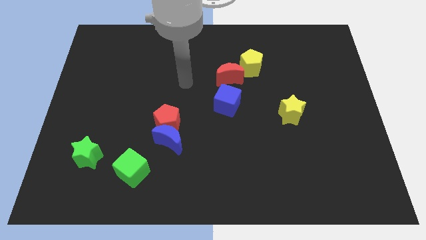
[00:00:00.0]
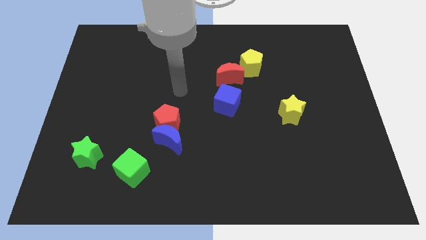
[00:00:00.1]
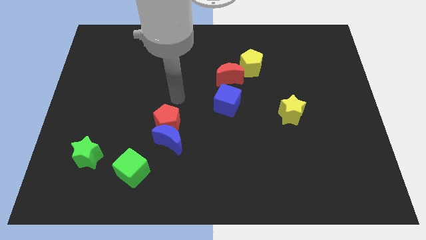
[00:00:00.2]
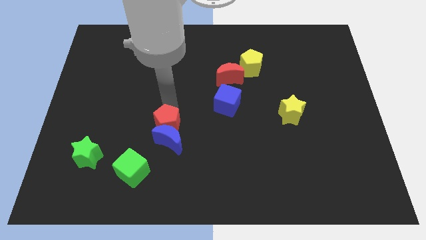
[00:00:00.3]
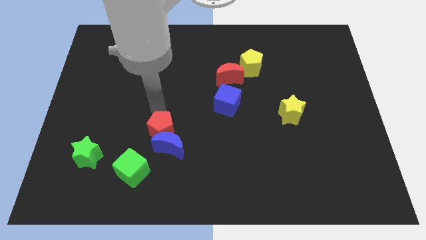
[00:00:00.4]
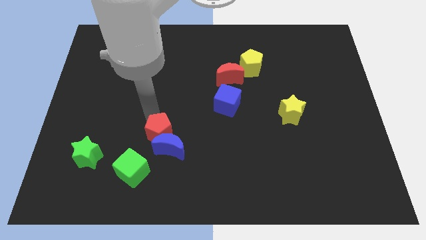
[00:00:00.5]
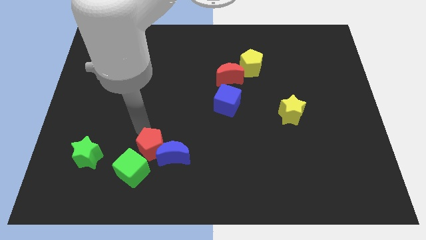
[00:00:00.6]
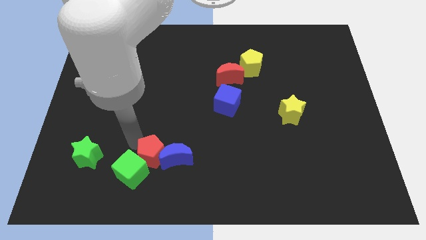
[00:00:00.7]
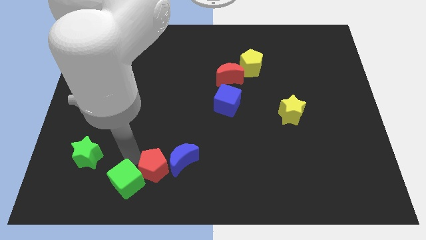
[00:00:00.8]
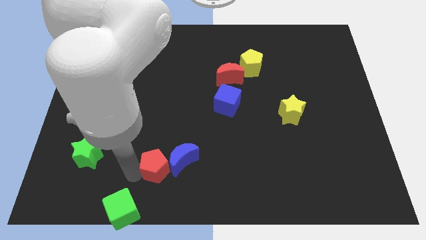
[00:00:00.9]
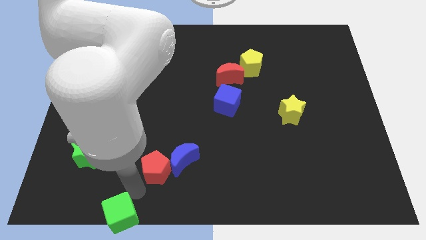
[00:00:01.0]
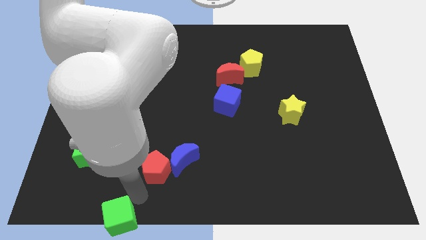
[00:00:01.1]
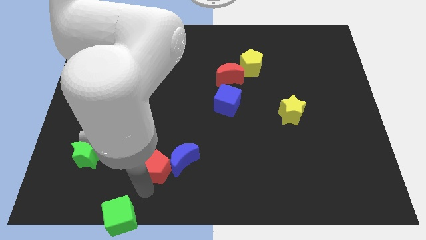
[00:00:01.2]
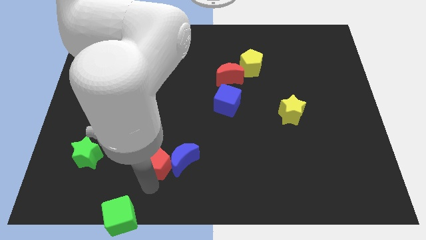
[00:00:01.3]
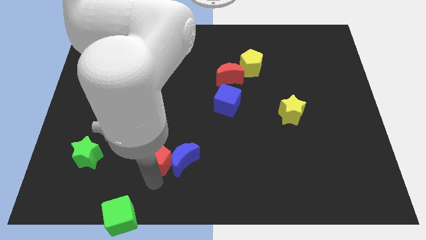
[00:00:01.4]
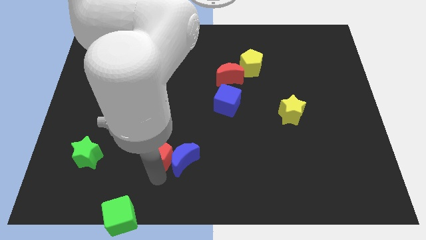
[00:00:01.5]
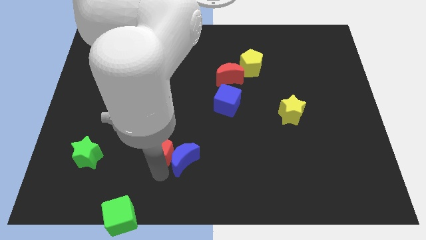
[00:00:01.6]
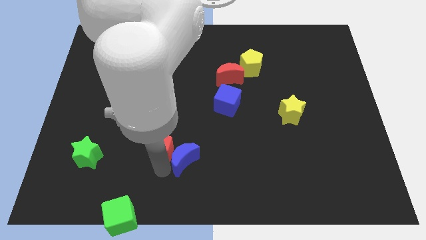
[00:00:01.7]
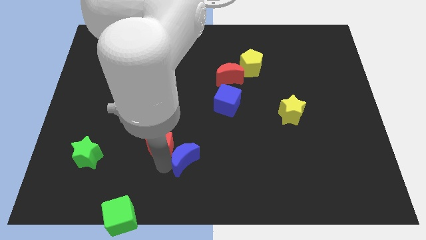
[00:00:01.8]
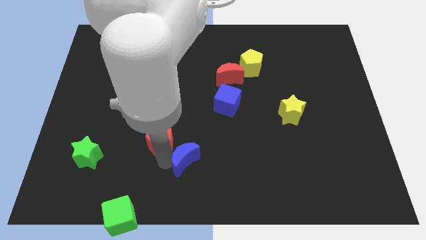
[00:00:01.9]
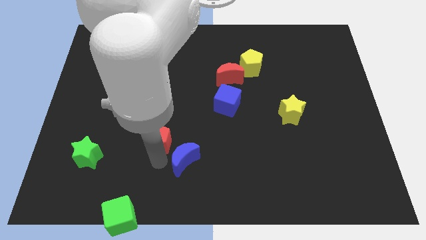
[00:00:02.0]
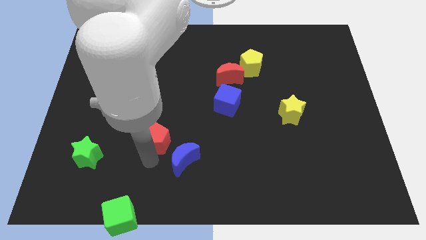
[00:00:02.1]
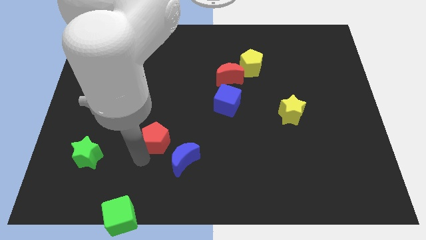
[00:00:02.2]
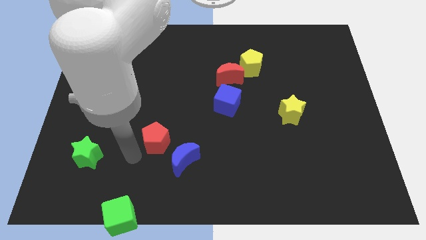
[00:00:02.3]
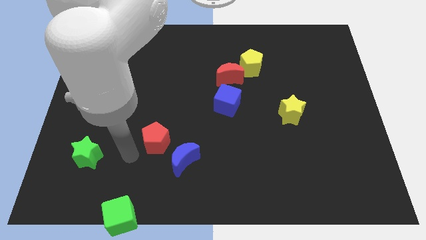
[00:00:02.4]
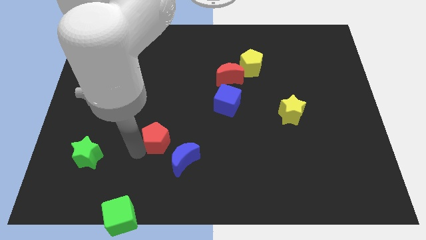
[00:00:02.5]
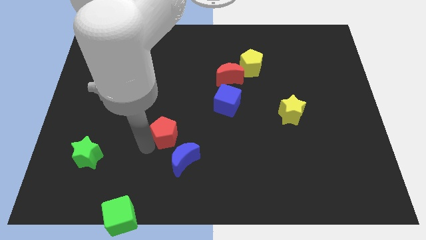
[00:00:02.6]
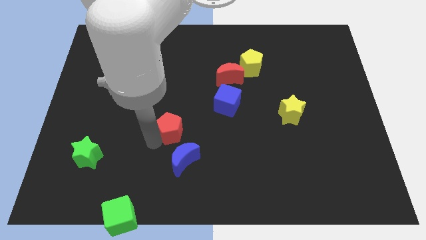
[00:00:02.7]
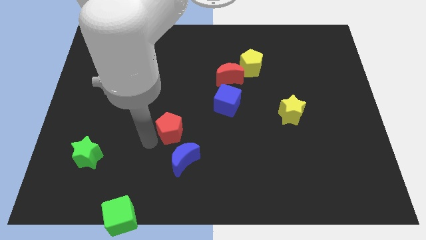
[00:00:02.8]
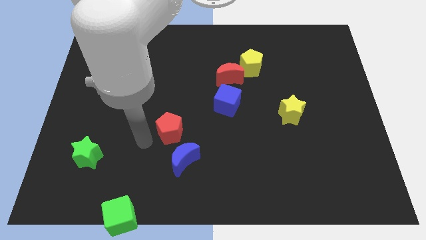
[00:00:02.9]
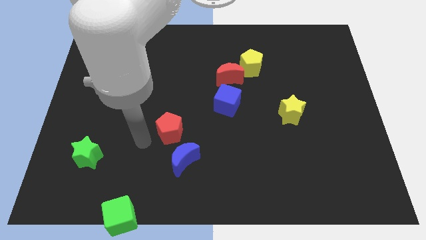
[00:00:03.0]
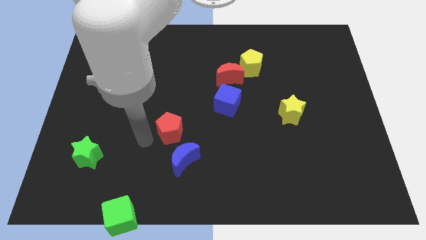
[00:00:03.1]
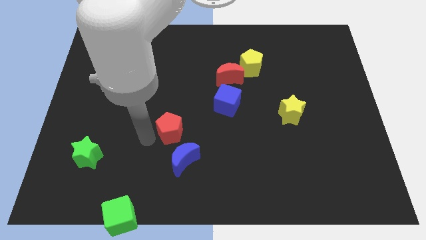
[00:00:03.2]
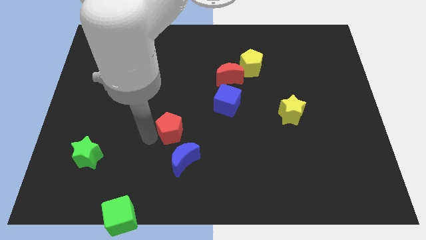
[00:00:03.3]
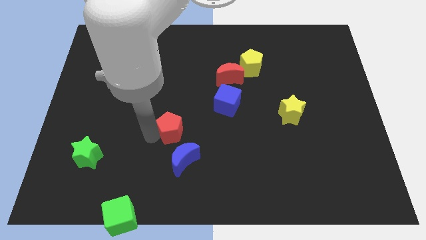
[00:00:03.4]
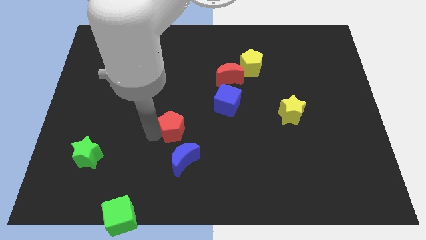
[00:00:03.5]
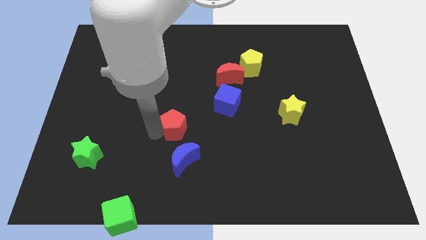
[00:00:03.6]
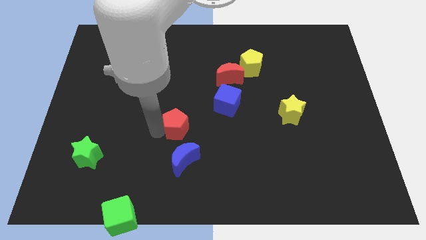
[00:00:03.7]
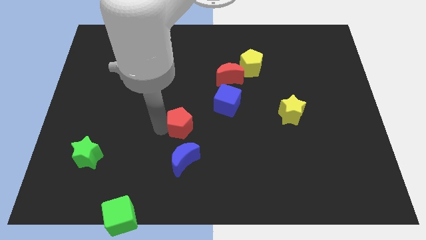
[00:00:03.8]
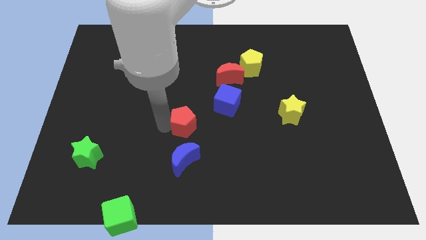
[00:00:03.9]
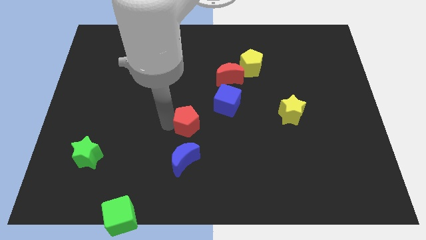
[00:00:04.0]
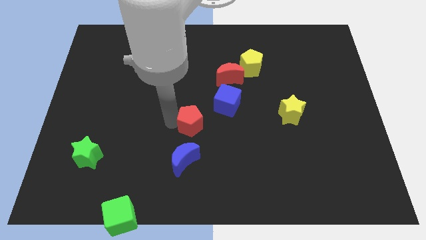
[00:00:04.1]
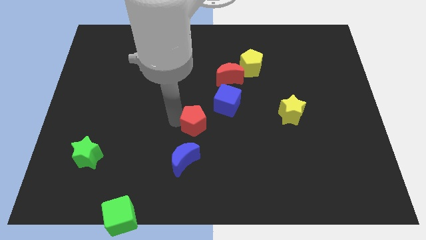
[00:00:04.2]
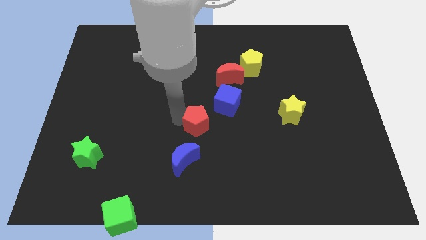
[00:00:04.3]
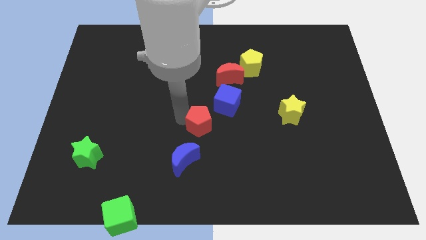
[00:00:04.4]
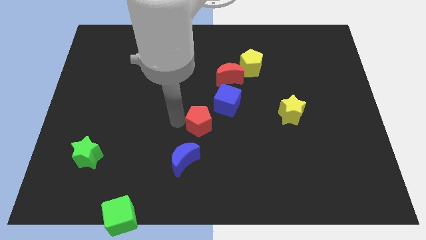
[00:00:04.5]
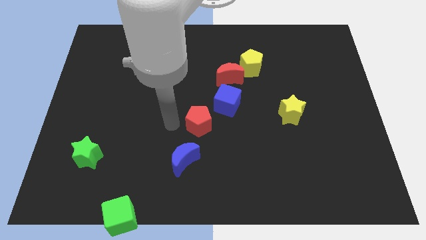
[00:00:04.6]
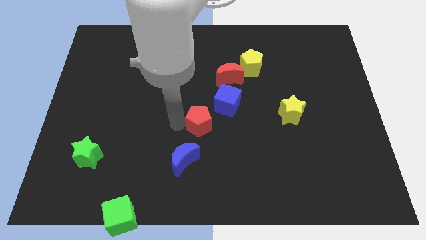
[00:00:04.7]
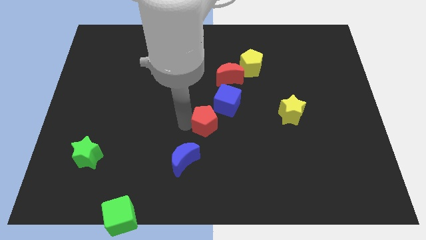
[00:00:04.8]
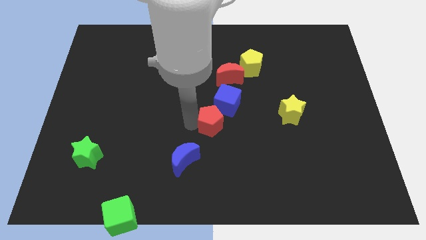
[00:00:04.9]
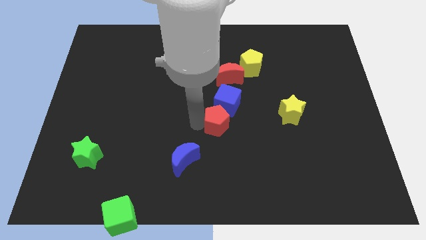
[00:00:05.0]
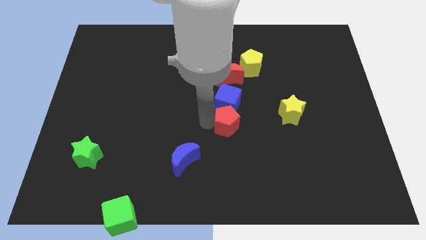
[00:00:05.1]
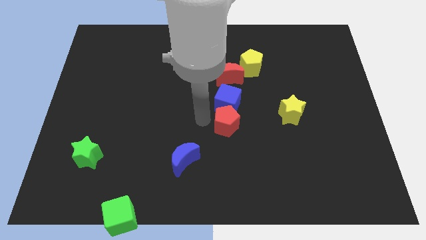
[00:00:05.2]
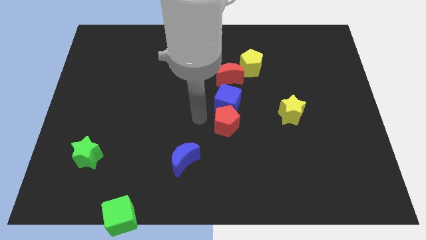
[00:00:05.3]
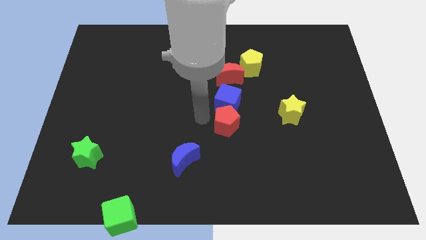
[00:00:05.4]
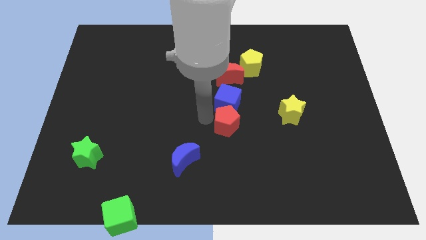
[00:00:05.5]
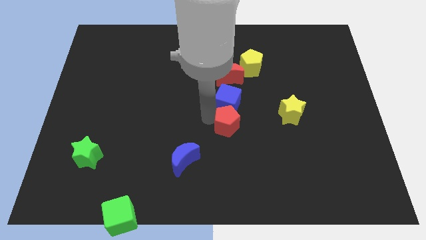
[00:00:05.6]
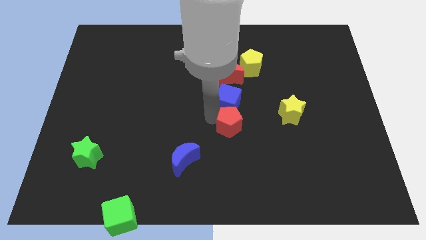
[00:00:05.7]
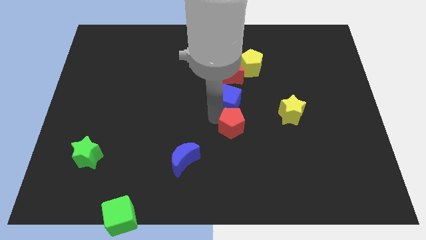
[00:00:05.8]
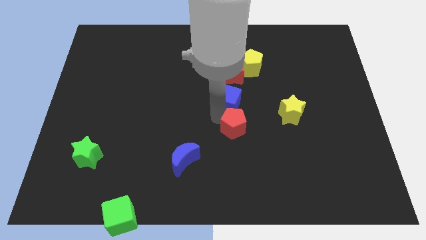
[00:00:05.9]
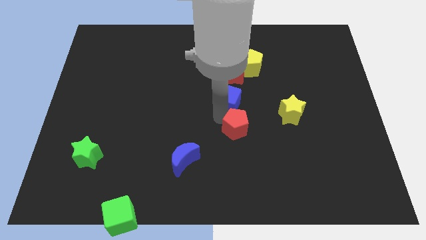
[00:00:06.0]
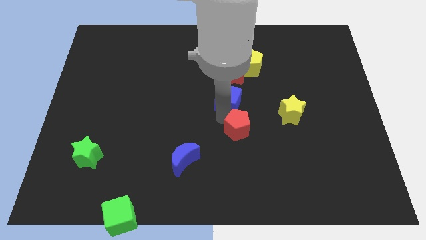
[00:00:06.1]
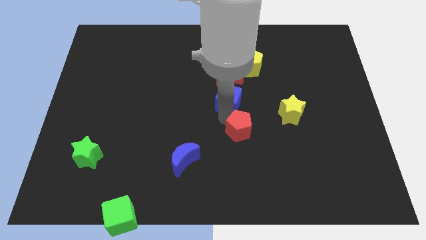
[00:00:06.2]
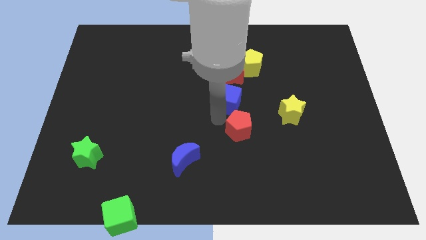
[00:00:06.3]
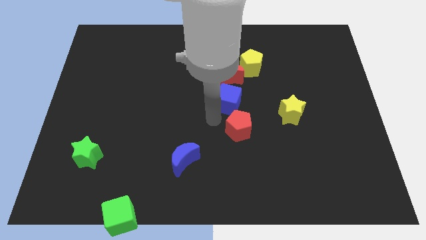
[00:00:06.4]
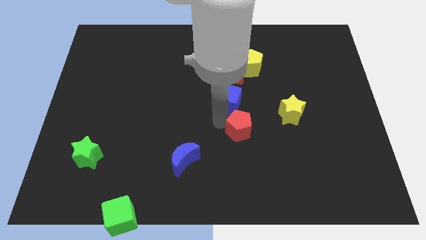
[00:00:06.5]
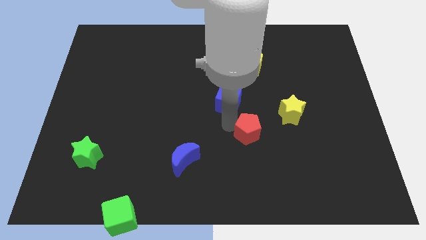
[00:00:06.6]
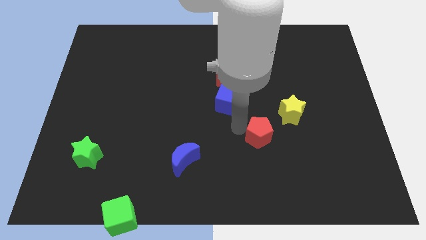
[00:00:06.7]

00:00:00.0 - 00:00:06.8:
push the red pentagon right

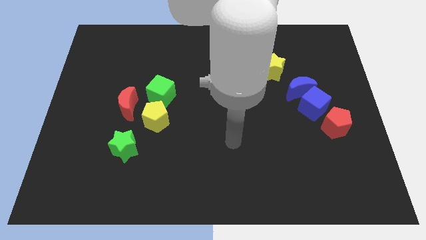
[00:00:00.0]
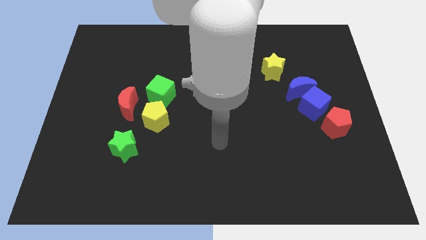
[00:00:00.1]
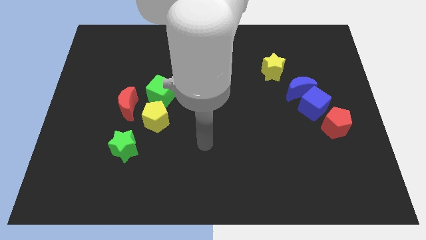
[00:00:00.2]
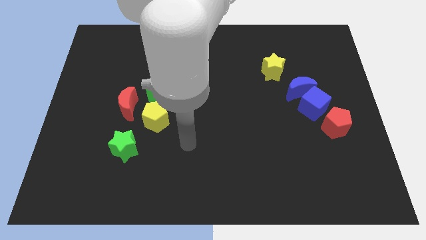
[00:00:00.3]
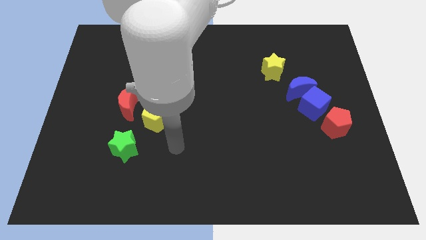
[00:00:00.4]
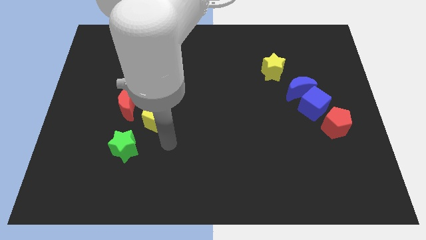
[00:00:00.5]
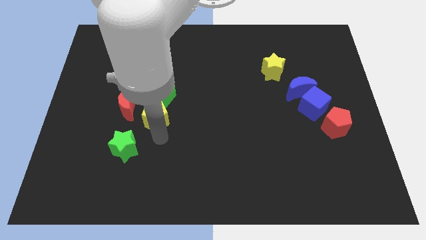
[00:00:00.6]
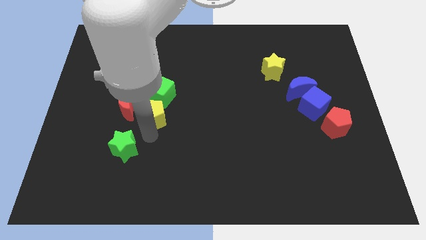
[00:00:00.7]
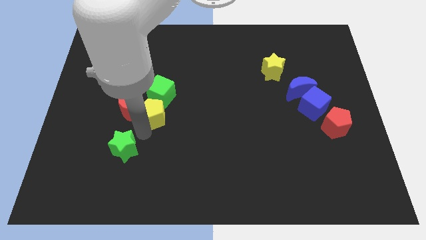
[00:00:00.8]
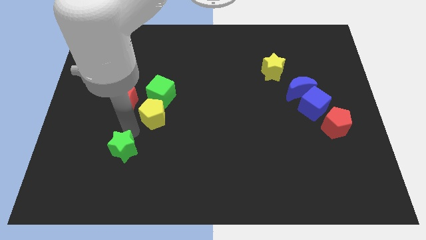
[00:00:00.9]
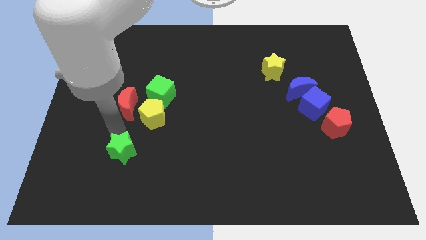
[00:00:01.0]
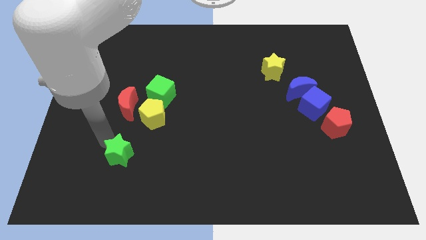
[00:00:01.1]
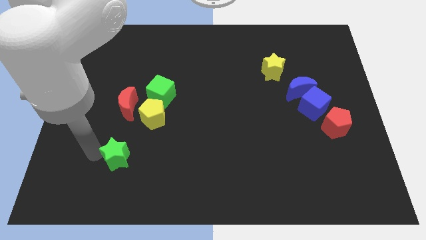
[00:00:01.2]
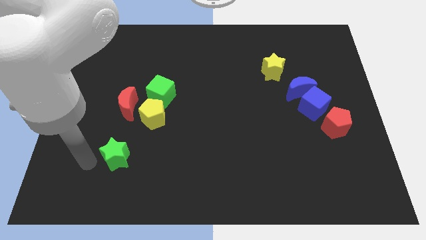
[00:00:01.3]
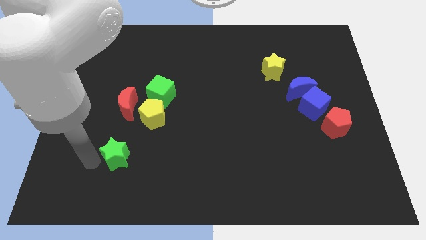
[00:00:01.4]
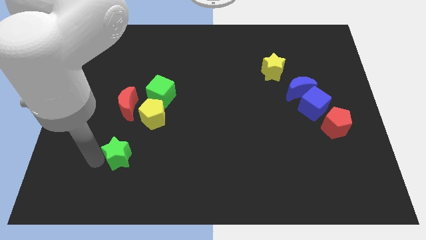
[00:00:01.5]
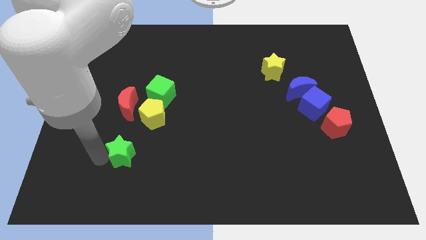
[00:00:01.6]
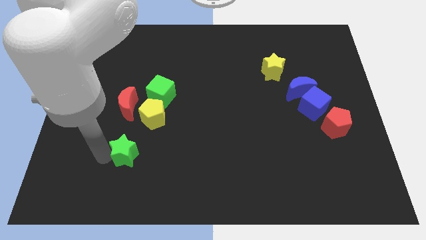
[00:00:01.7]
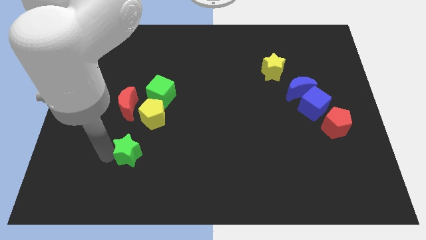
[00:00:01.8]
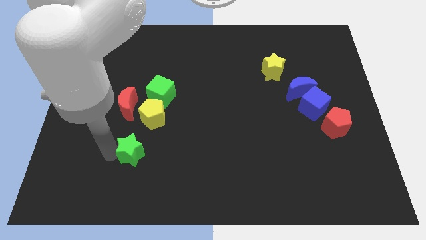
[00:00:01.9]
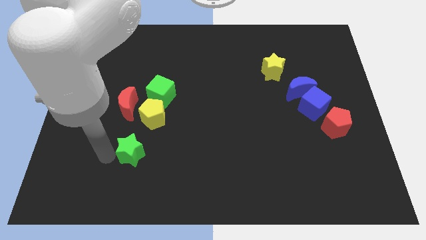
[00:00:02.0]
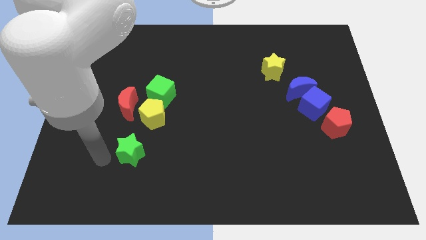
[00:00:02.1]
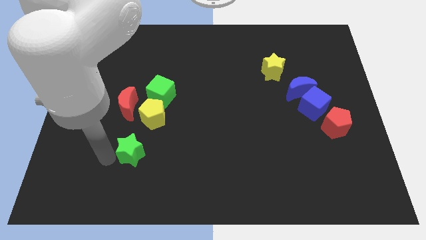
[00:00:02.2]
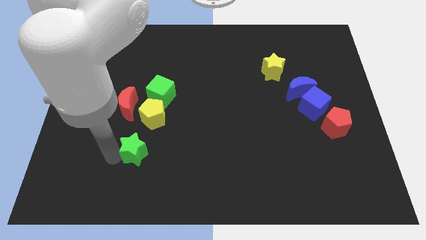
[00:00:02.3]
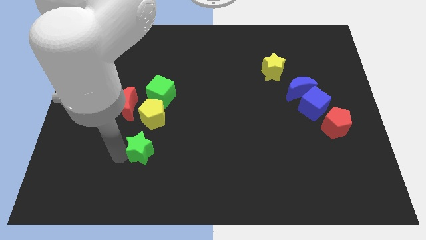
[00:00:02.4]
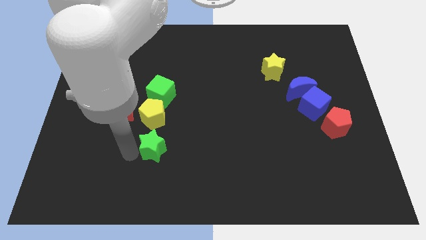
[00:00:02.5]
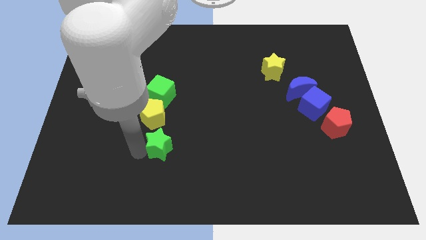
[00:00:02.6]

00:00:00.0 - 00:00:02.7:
slightly slide the green star to the right
